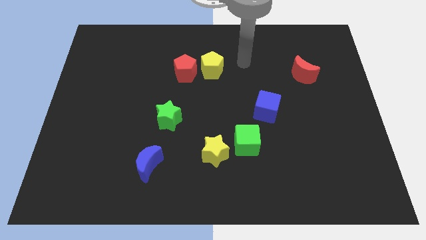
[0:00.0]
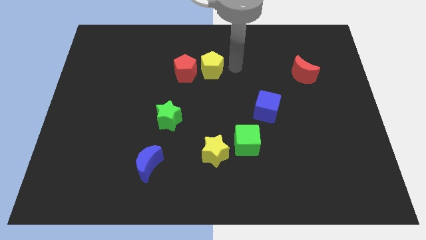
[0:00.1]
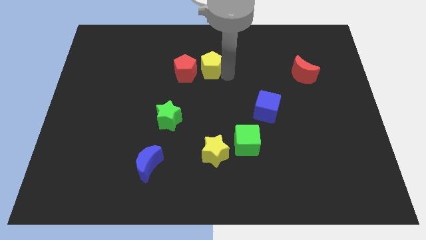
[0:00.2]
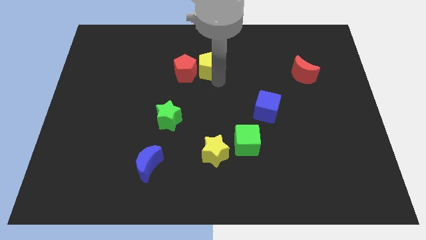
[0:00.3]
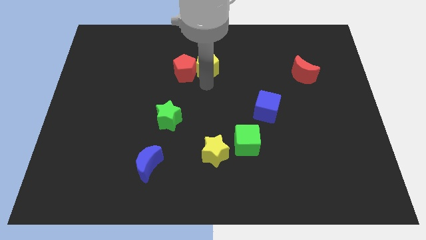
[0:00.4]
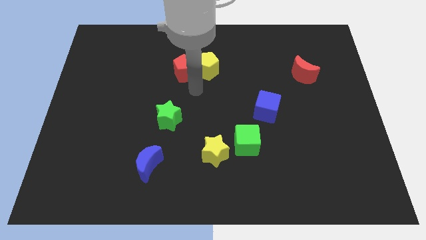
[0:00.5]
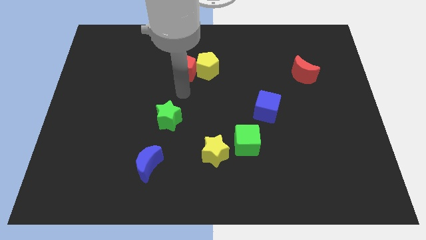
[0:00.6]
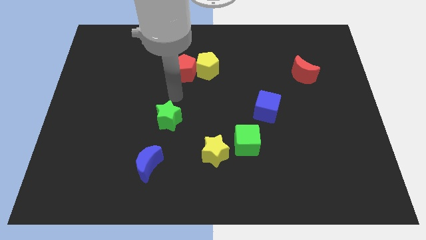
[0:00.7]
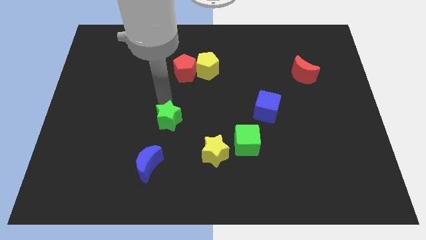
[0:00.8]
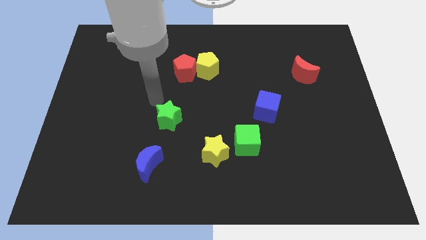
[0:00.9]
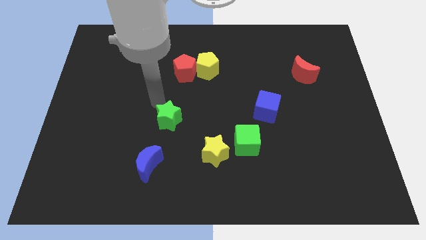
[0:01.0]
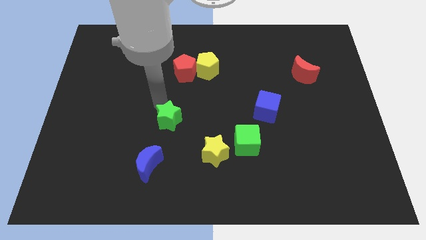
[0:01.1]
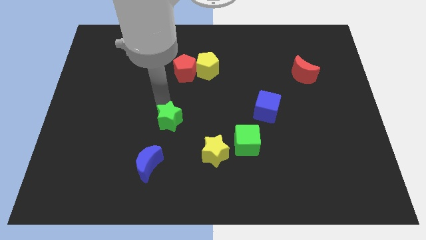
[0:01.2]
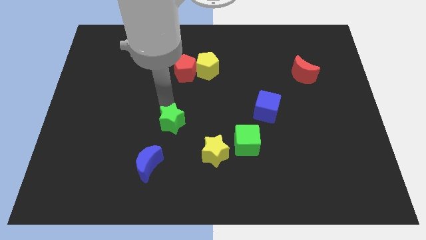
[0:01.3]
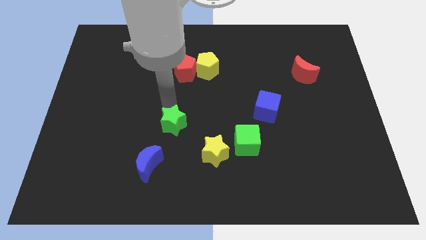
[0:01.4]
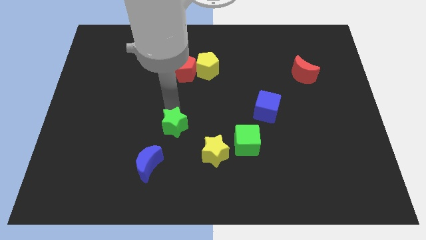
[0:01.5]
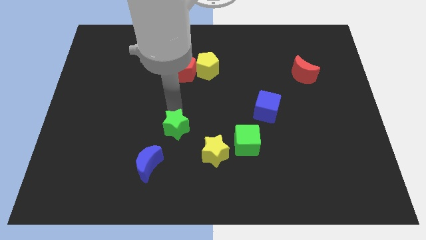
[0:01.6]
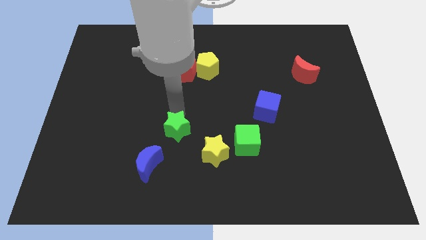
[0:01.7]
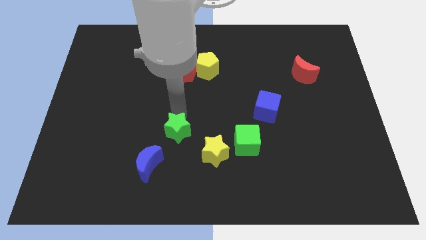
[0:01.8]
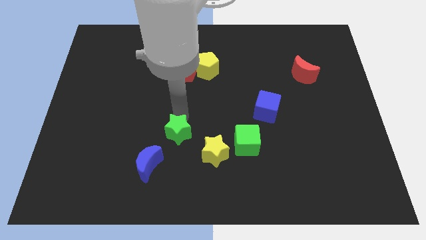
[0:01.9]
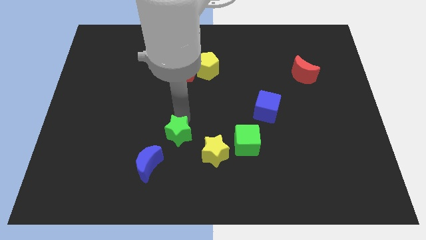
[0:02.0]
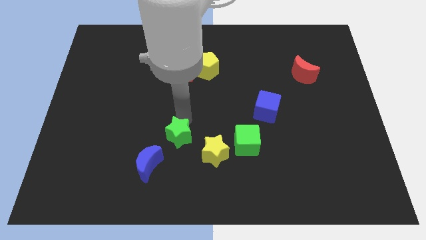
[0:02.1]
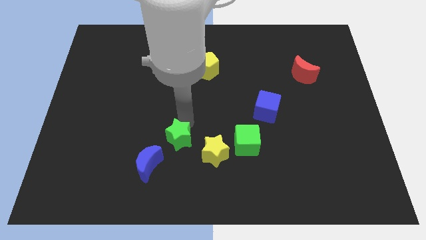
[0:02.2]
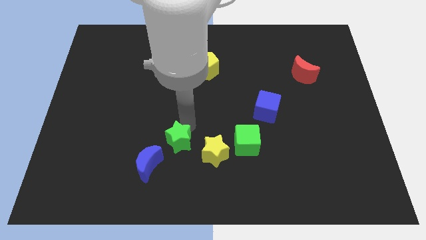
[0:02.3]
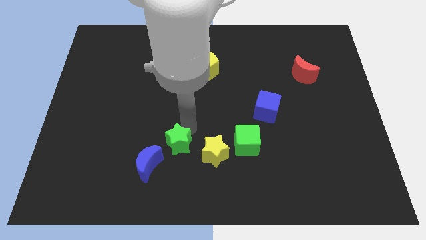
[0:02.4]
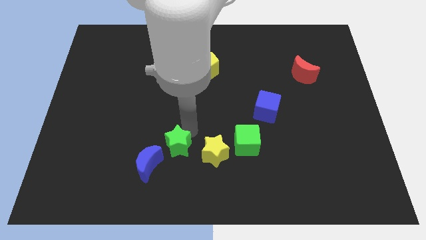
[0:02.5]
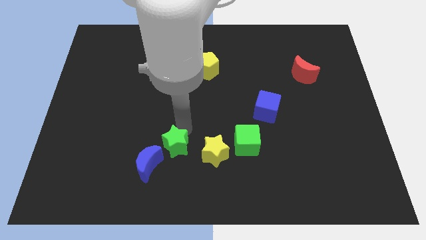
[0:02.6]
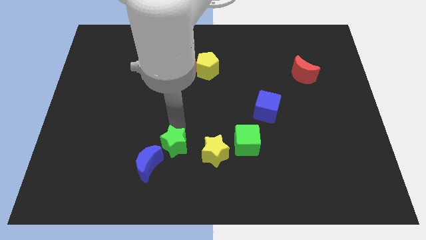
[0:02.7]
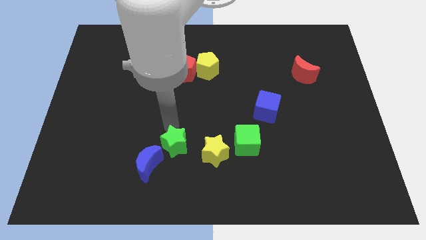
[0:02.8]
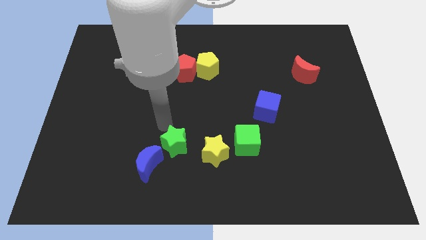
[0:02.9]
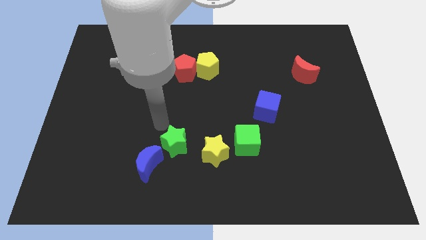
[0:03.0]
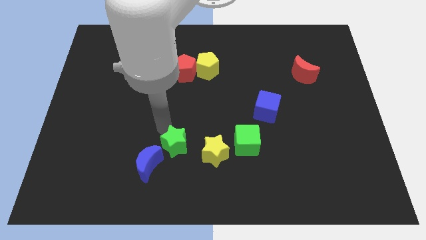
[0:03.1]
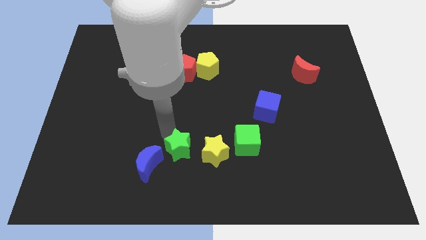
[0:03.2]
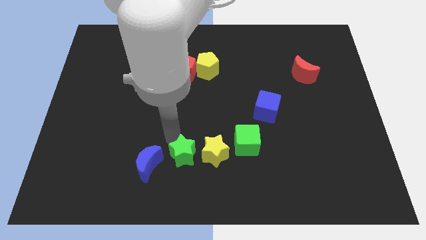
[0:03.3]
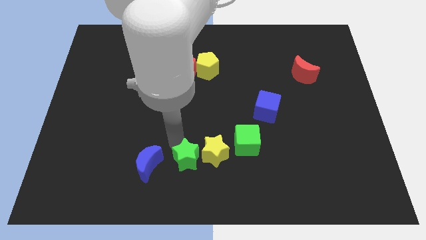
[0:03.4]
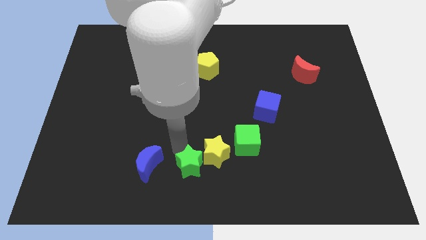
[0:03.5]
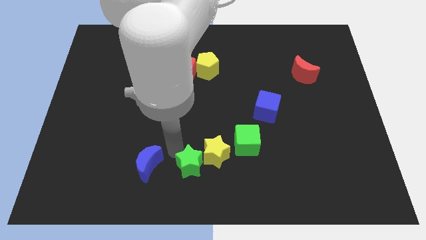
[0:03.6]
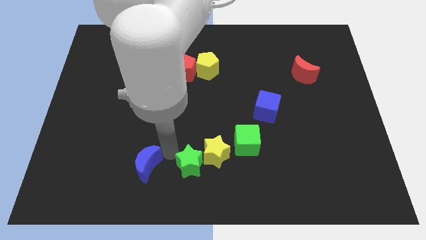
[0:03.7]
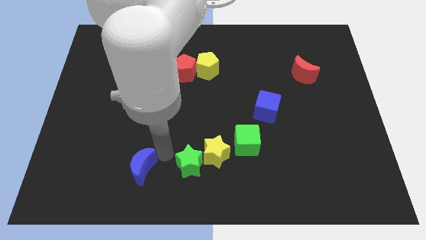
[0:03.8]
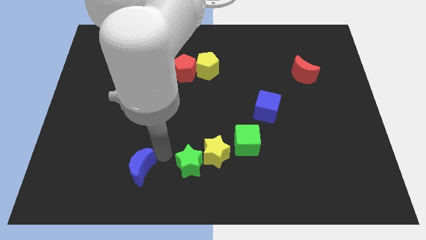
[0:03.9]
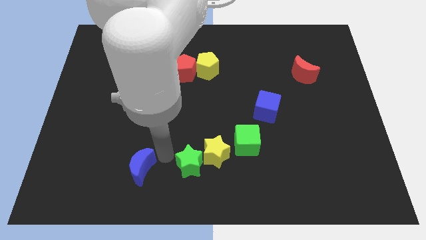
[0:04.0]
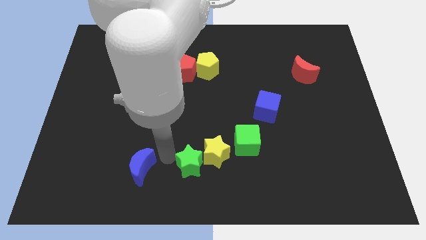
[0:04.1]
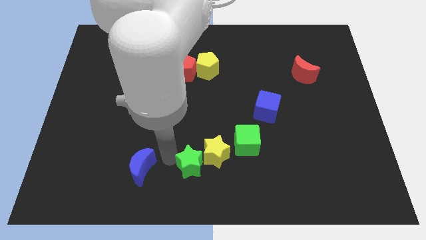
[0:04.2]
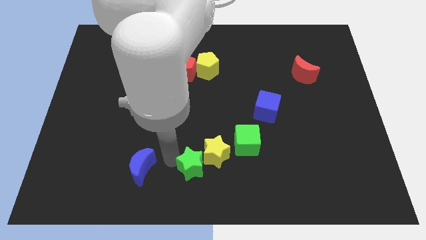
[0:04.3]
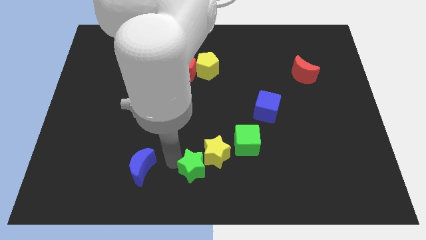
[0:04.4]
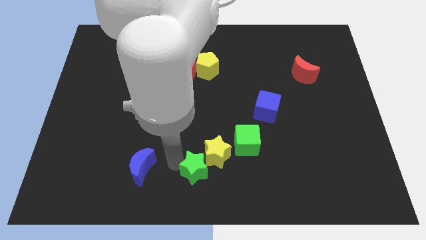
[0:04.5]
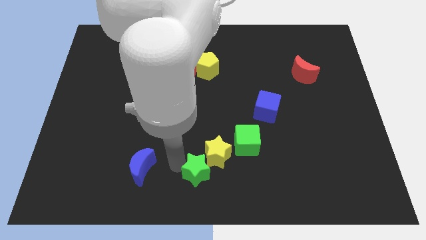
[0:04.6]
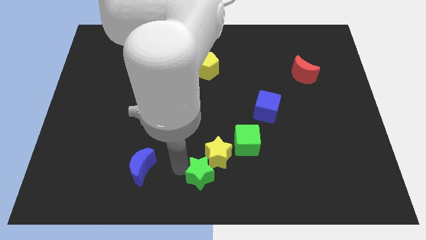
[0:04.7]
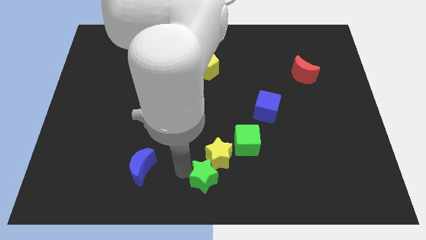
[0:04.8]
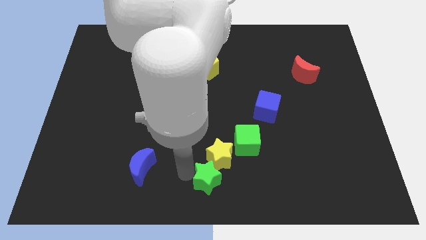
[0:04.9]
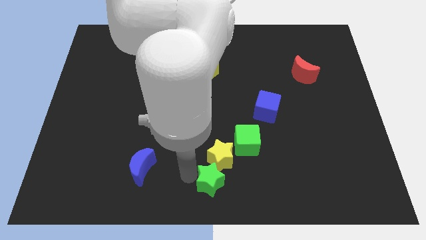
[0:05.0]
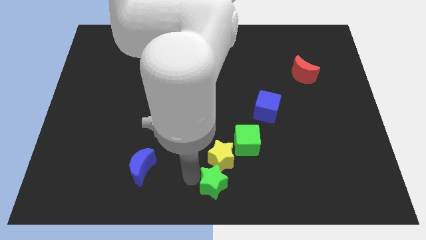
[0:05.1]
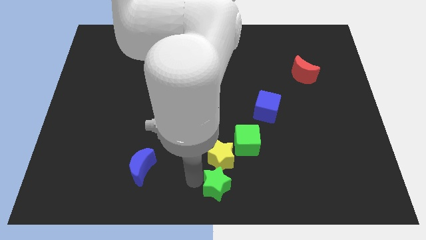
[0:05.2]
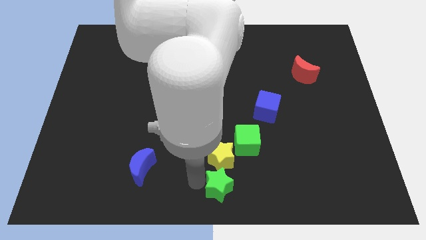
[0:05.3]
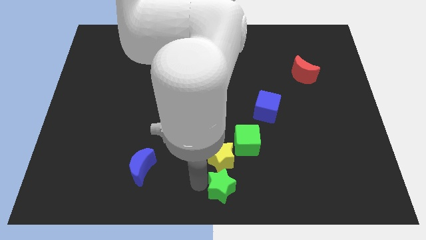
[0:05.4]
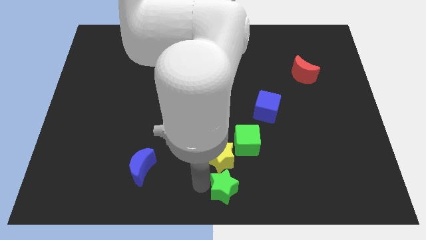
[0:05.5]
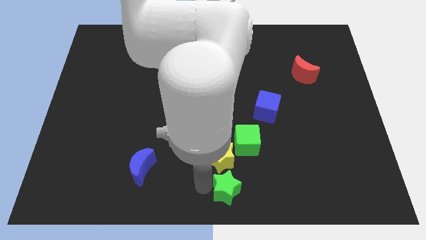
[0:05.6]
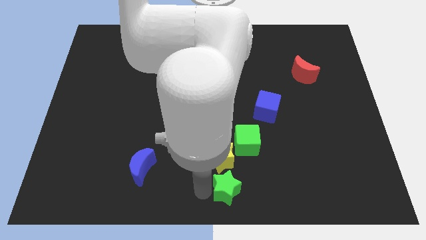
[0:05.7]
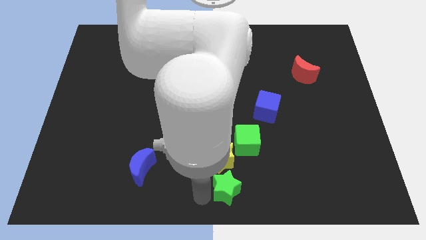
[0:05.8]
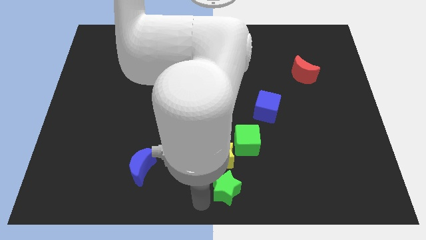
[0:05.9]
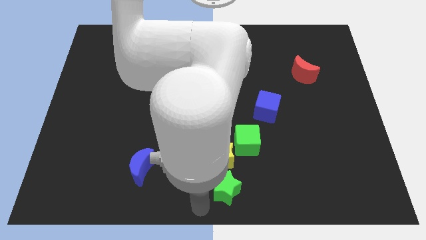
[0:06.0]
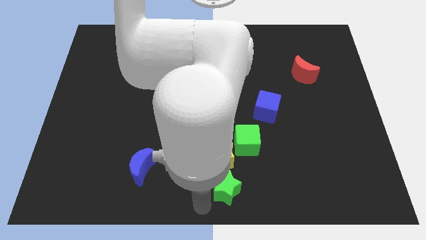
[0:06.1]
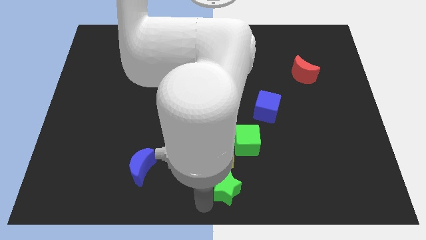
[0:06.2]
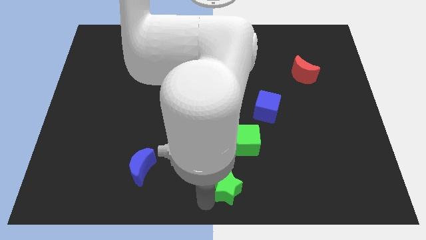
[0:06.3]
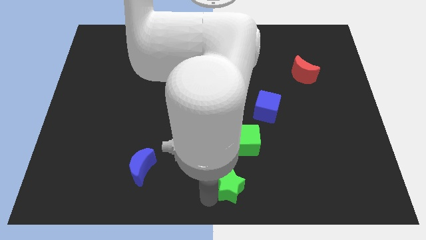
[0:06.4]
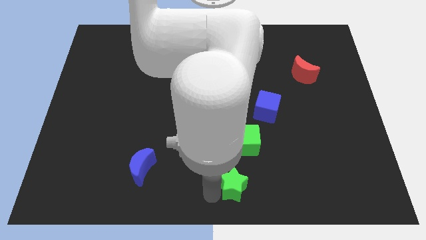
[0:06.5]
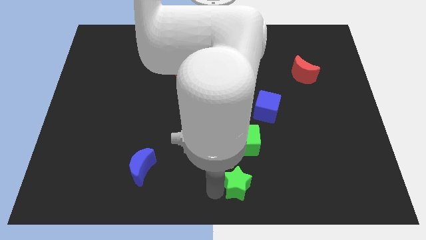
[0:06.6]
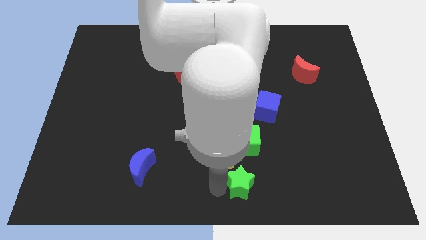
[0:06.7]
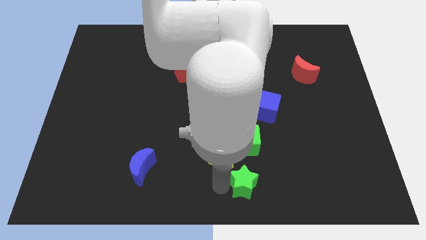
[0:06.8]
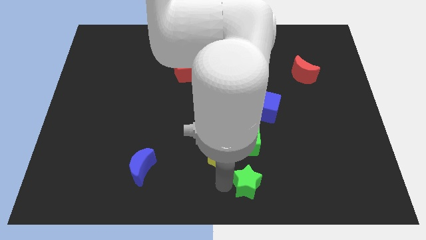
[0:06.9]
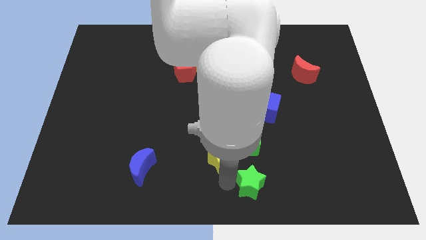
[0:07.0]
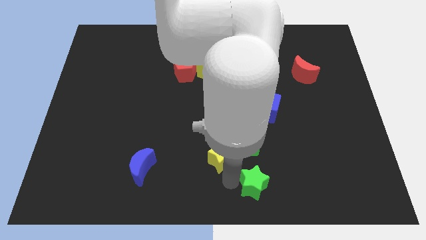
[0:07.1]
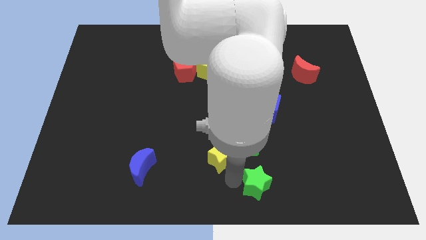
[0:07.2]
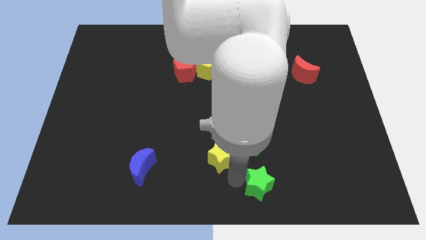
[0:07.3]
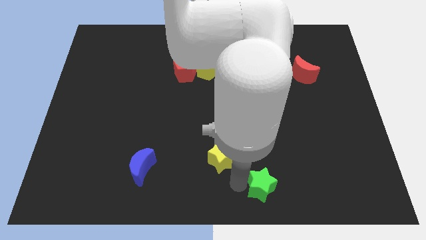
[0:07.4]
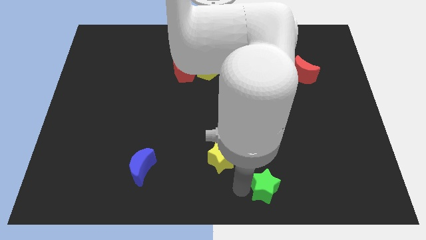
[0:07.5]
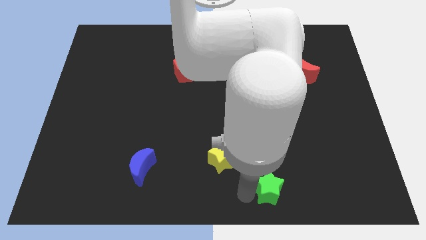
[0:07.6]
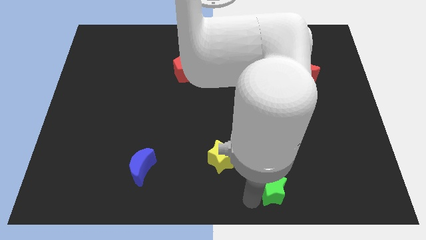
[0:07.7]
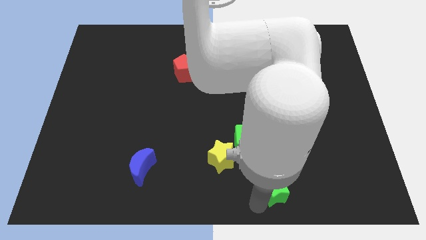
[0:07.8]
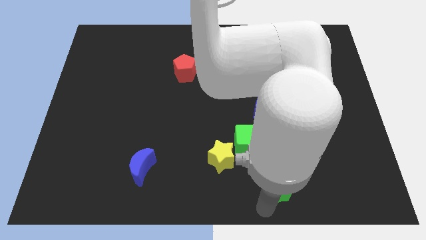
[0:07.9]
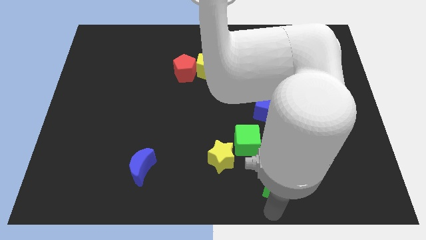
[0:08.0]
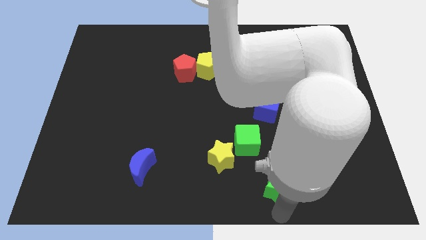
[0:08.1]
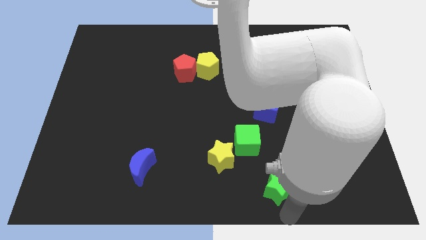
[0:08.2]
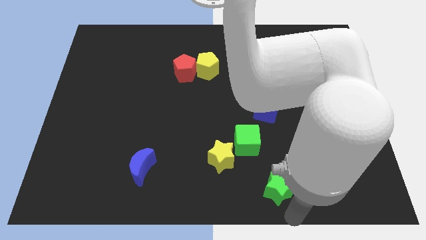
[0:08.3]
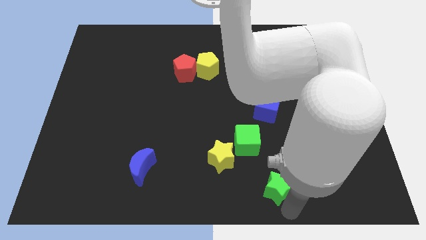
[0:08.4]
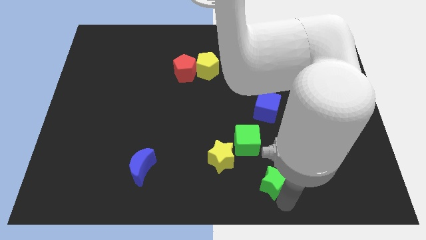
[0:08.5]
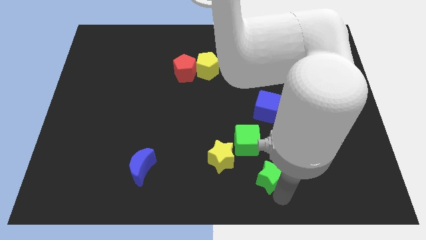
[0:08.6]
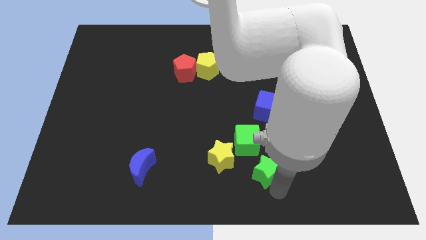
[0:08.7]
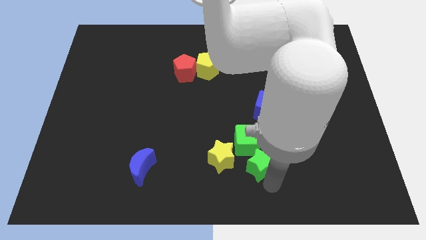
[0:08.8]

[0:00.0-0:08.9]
slide the green star below the blue cube
